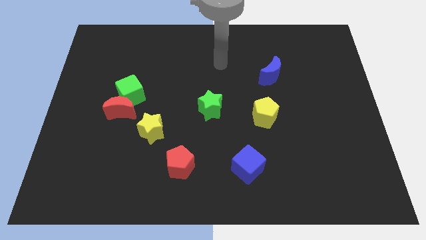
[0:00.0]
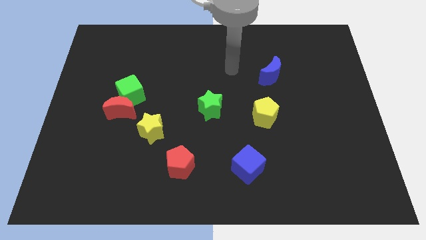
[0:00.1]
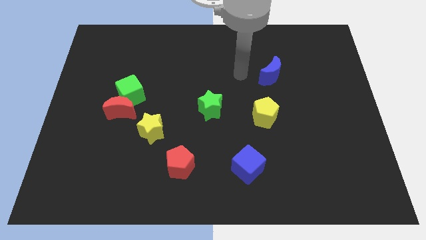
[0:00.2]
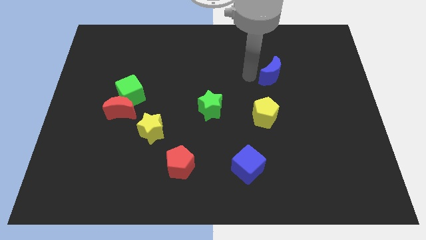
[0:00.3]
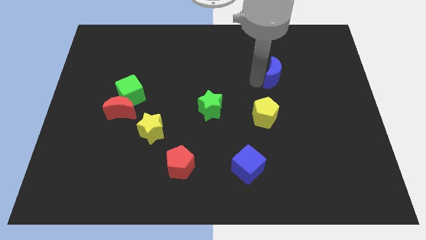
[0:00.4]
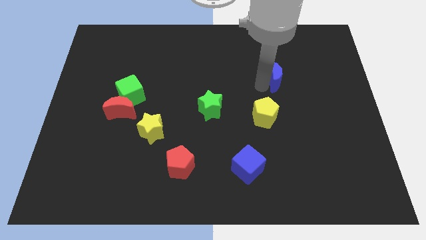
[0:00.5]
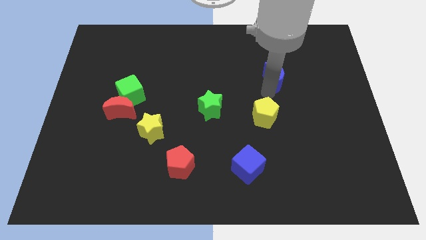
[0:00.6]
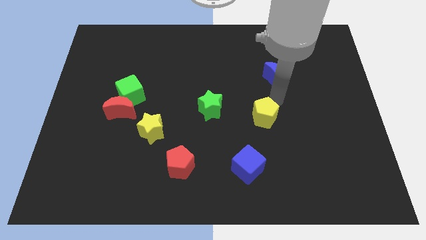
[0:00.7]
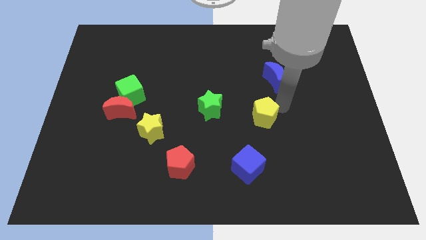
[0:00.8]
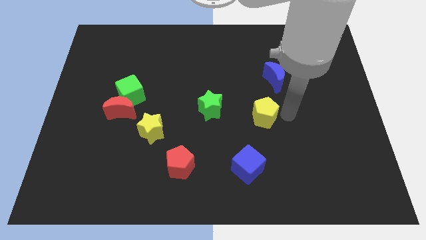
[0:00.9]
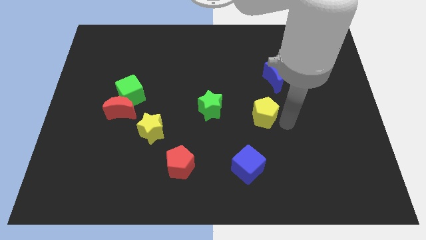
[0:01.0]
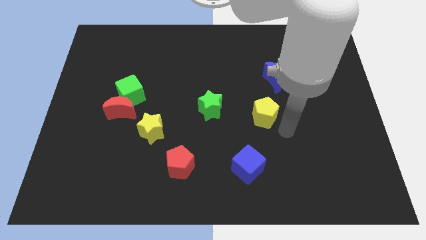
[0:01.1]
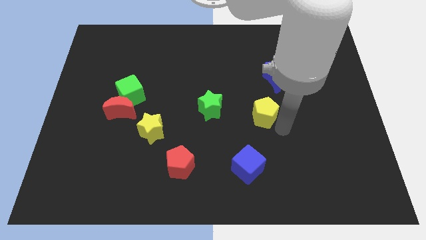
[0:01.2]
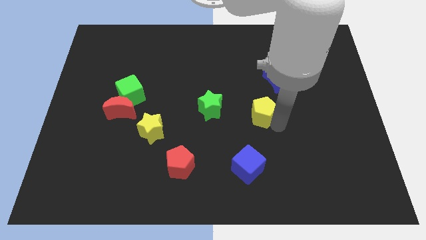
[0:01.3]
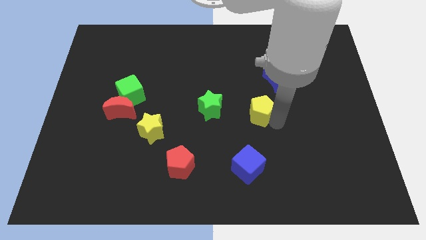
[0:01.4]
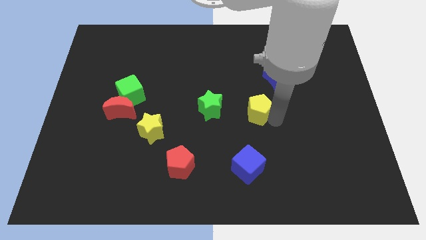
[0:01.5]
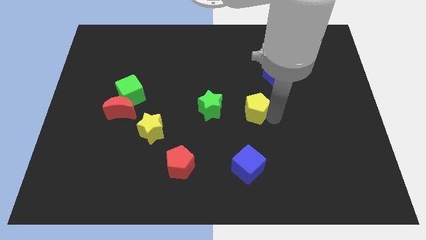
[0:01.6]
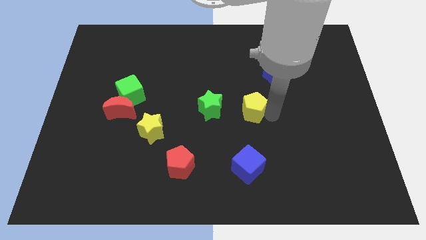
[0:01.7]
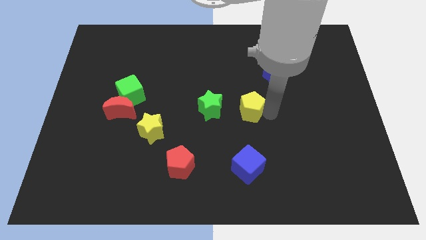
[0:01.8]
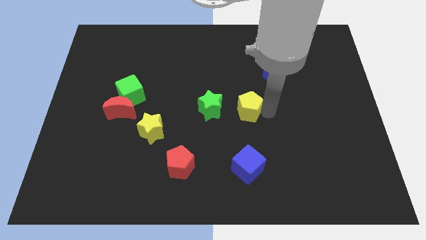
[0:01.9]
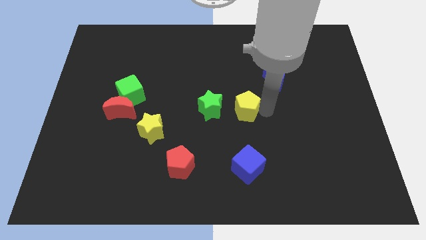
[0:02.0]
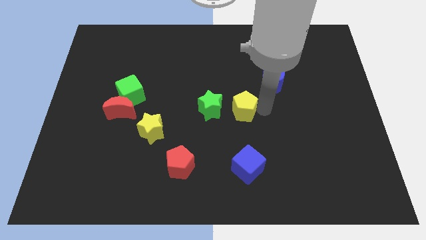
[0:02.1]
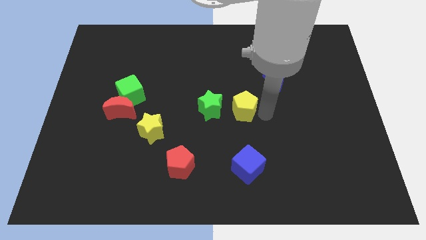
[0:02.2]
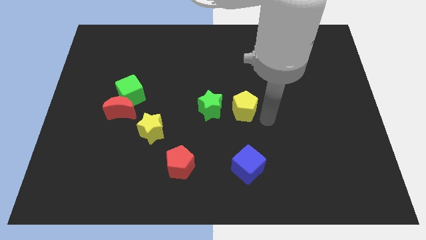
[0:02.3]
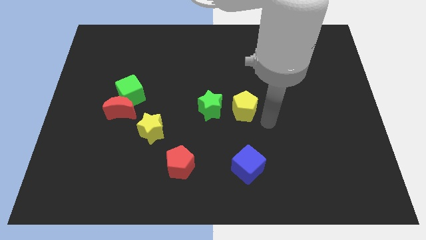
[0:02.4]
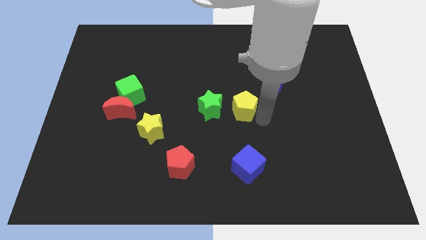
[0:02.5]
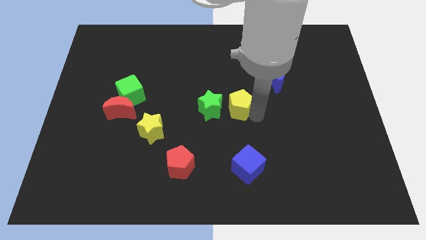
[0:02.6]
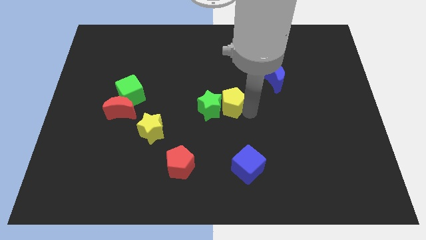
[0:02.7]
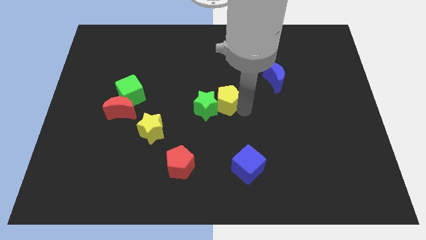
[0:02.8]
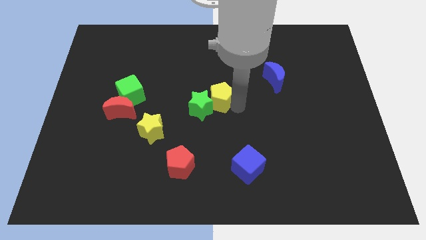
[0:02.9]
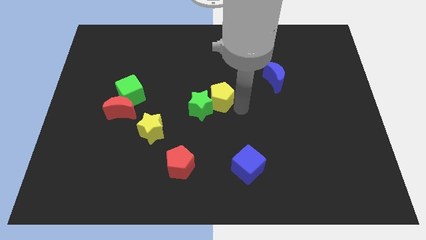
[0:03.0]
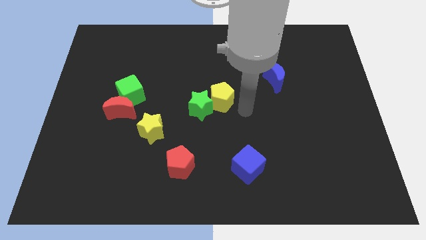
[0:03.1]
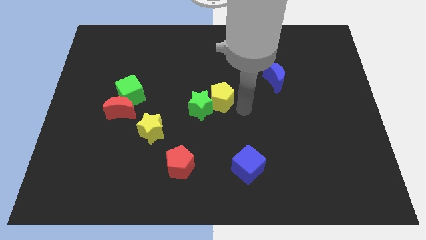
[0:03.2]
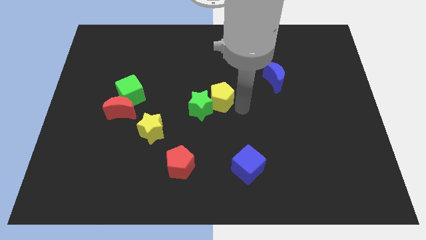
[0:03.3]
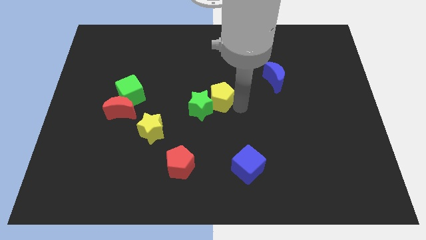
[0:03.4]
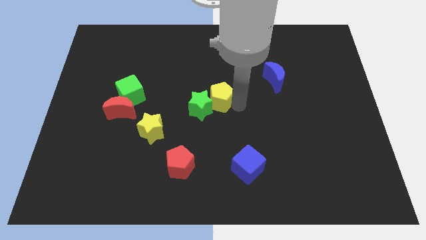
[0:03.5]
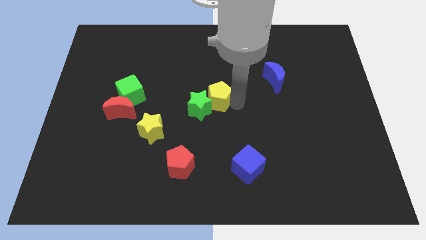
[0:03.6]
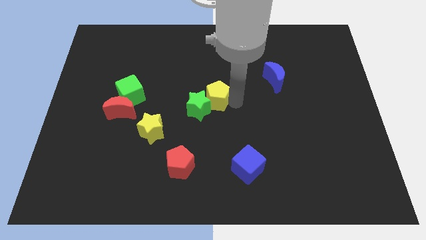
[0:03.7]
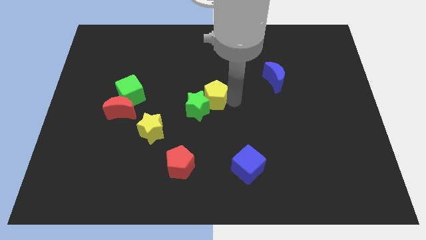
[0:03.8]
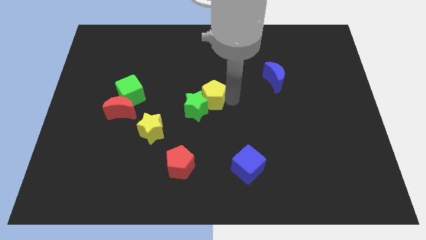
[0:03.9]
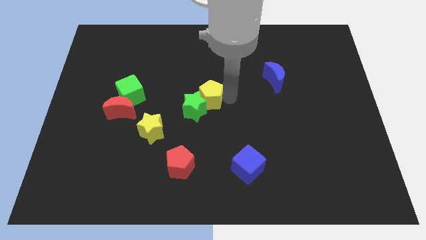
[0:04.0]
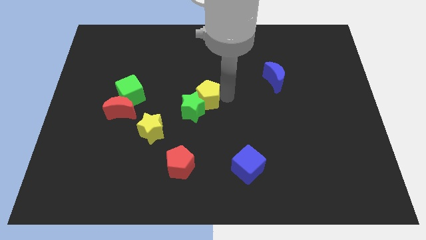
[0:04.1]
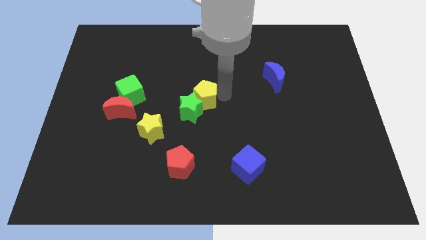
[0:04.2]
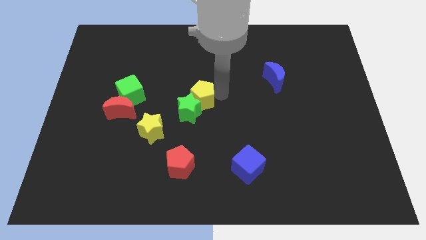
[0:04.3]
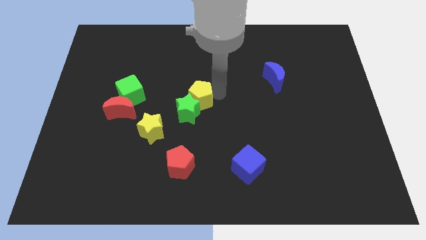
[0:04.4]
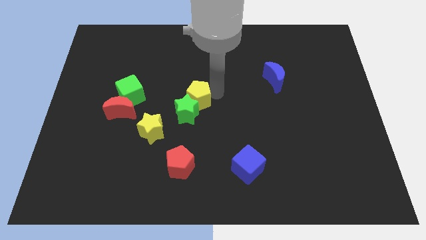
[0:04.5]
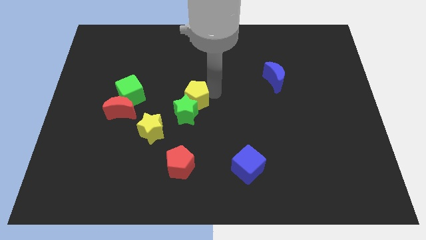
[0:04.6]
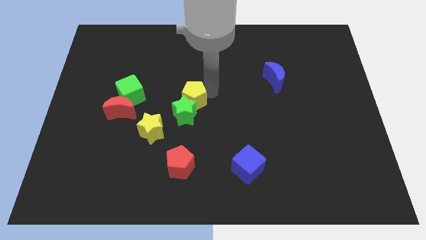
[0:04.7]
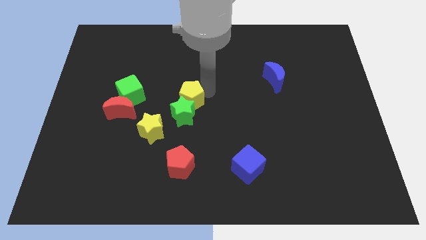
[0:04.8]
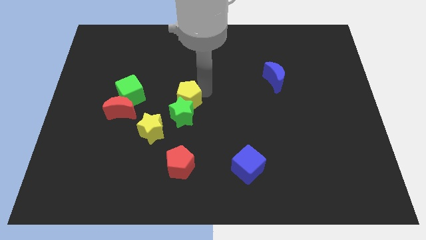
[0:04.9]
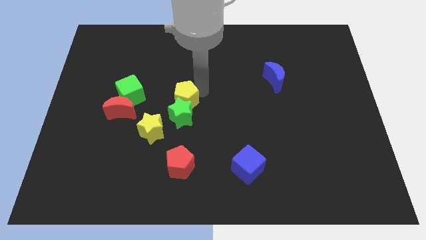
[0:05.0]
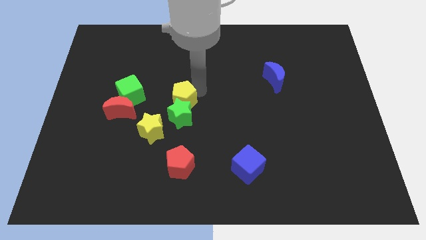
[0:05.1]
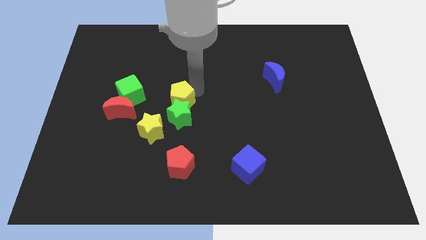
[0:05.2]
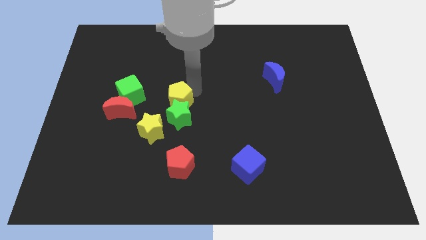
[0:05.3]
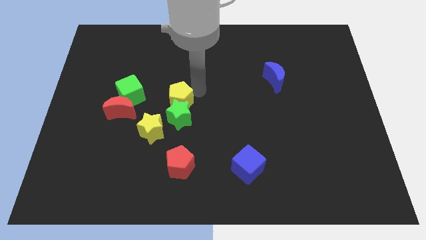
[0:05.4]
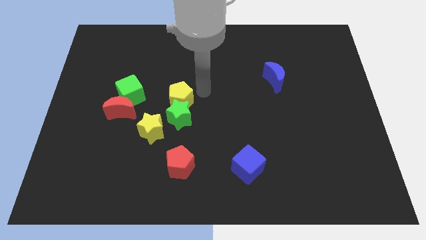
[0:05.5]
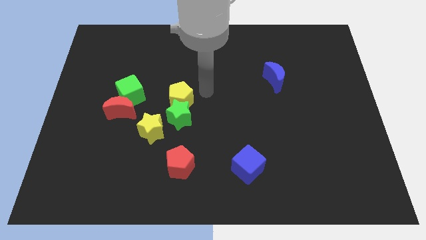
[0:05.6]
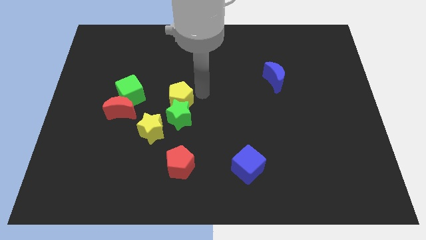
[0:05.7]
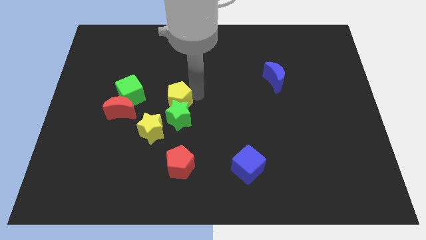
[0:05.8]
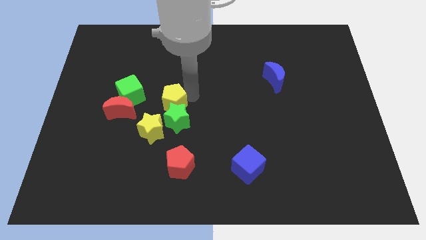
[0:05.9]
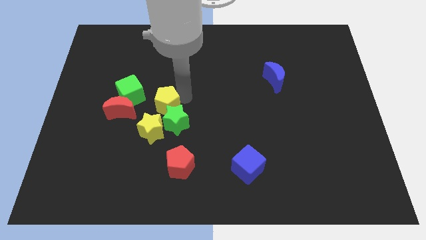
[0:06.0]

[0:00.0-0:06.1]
move the yellow pentagon to the bottom right of the green cube

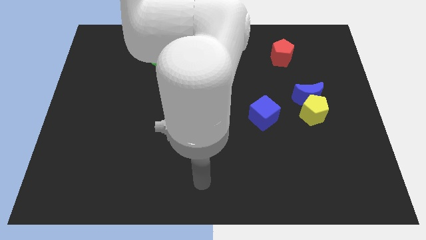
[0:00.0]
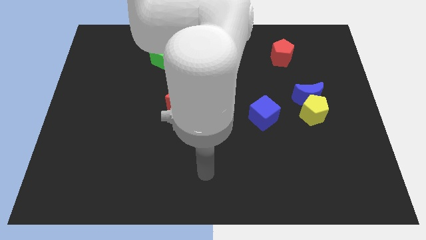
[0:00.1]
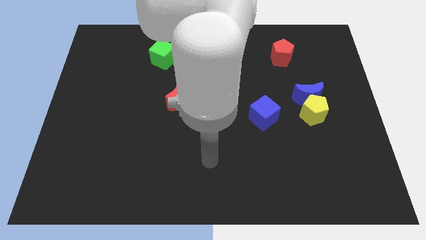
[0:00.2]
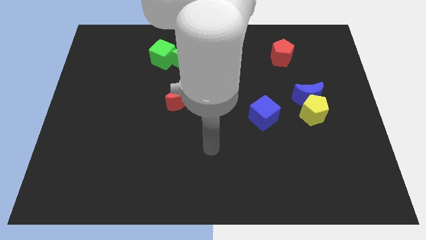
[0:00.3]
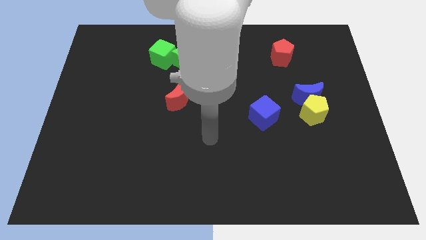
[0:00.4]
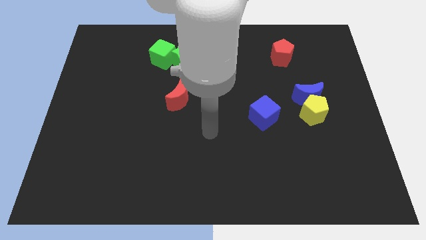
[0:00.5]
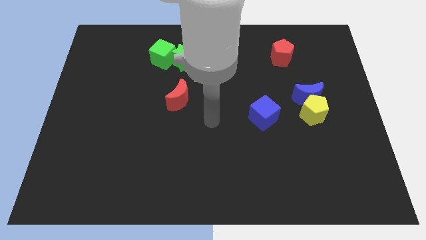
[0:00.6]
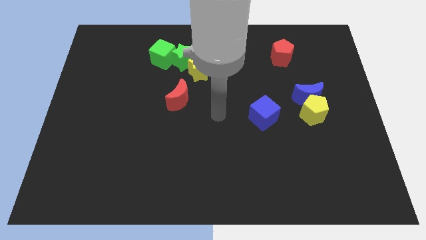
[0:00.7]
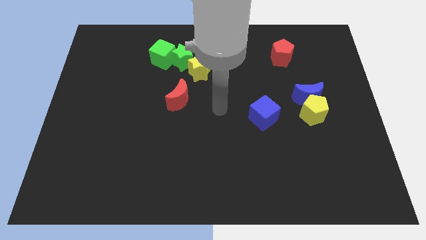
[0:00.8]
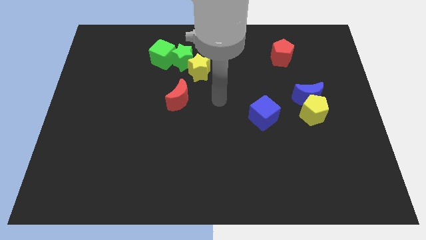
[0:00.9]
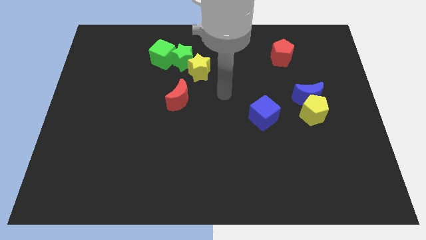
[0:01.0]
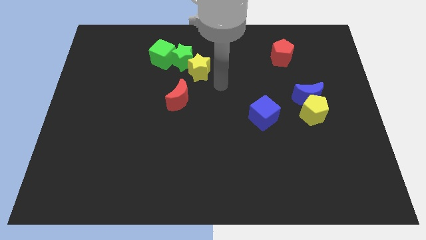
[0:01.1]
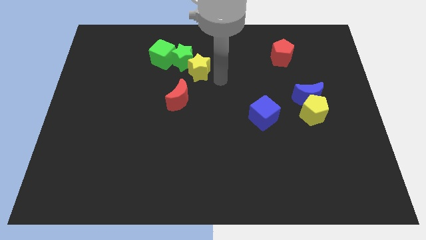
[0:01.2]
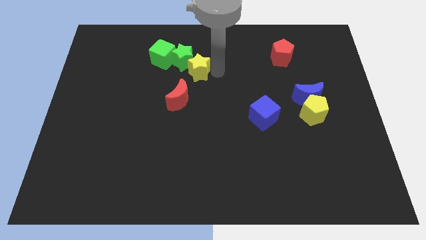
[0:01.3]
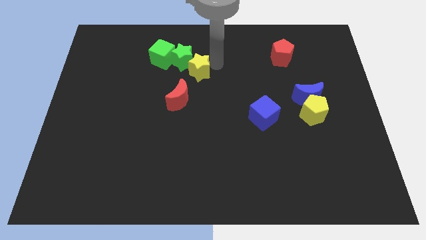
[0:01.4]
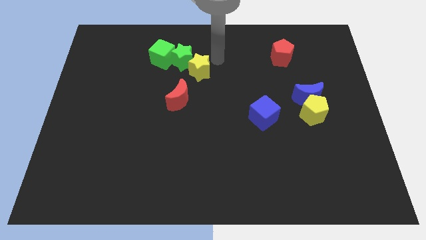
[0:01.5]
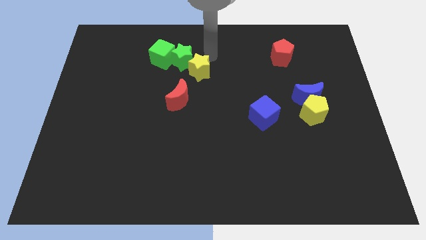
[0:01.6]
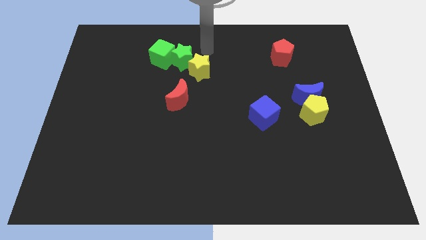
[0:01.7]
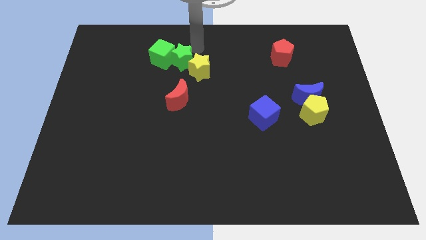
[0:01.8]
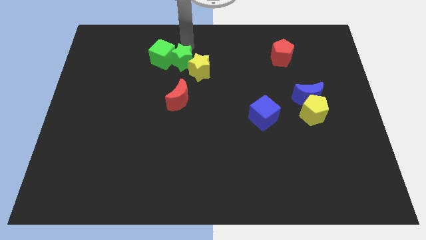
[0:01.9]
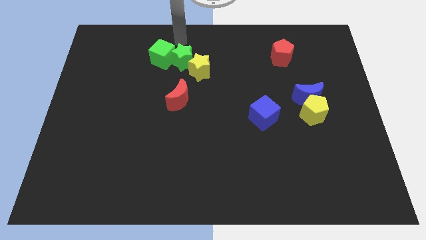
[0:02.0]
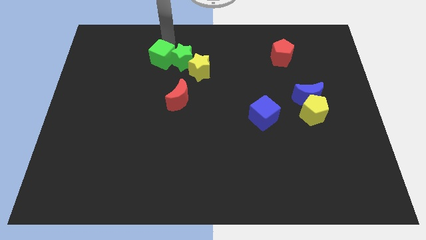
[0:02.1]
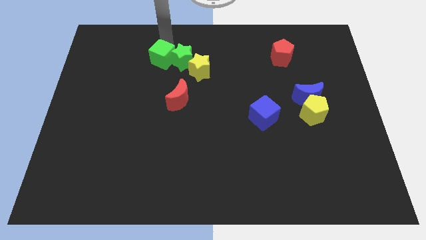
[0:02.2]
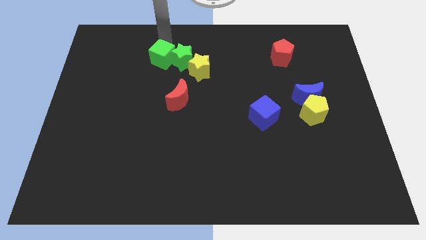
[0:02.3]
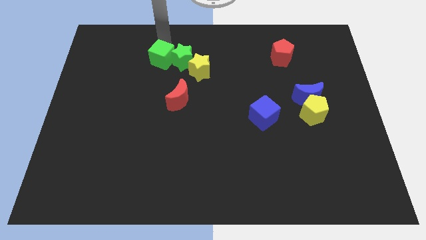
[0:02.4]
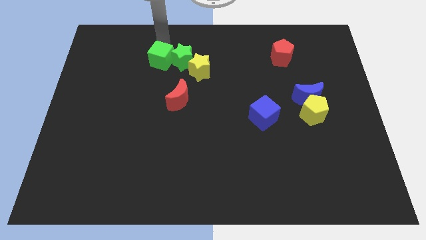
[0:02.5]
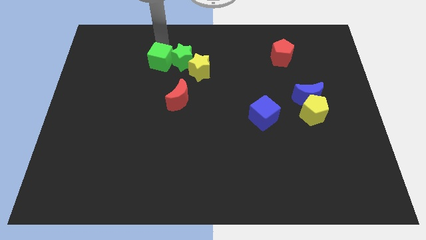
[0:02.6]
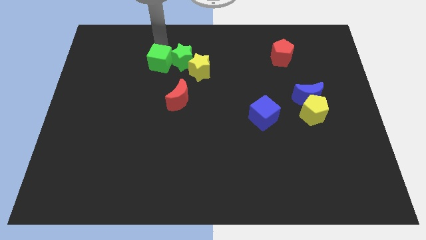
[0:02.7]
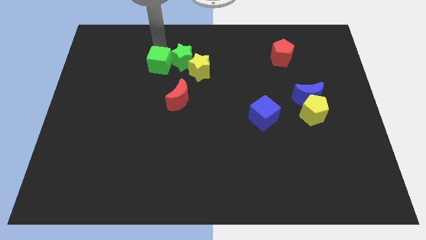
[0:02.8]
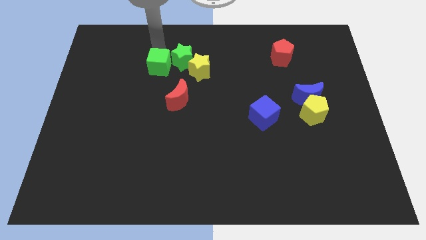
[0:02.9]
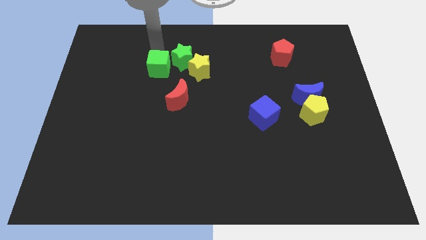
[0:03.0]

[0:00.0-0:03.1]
push the green cube to the top left of the red moon
